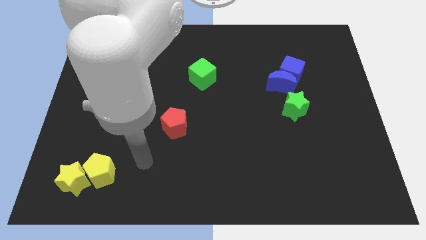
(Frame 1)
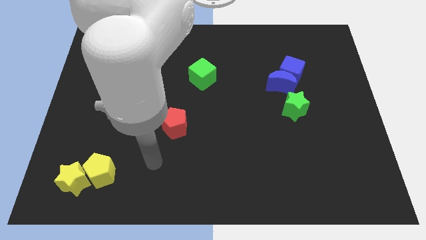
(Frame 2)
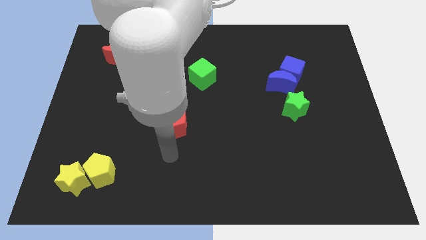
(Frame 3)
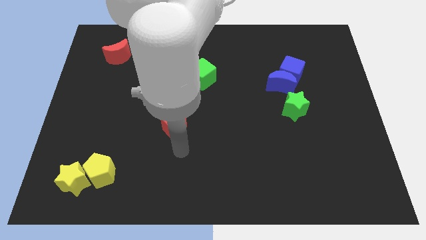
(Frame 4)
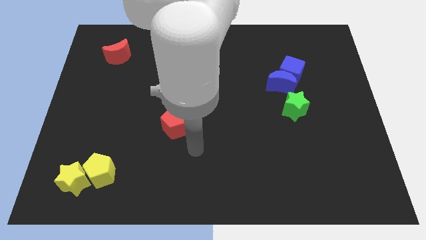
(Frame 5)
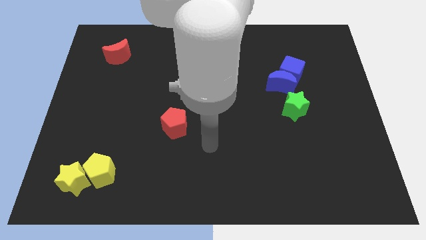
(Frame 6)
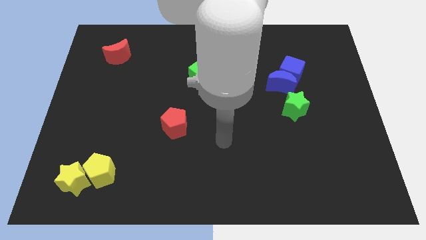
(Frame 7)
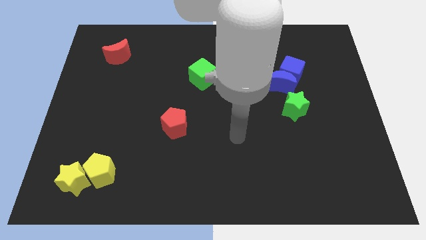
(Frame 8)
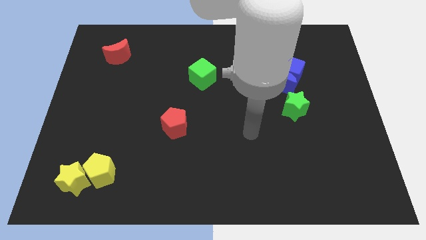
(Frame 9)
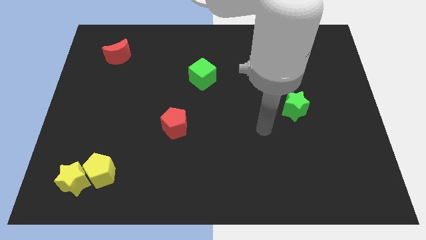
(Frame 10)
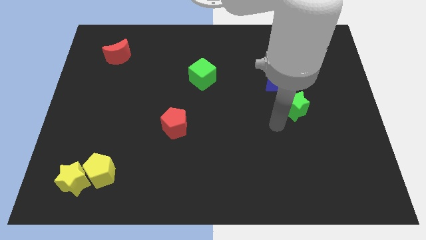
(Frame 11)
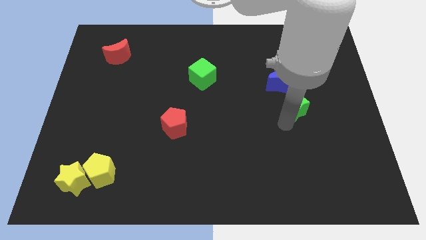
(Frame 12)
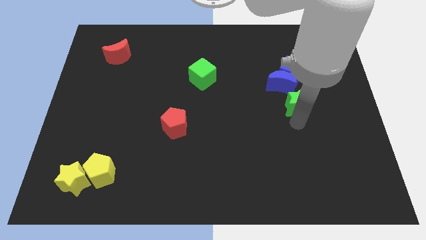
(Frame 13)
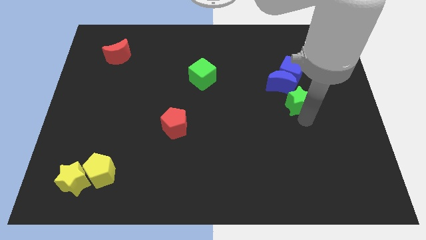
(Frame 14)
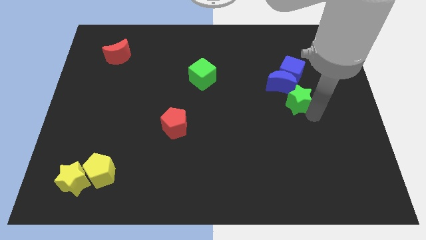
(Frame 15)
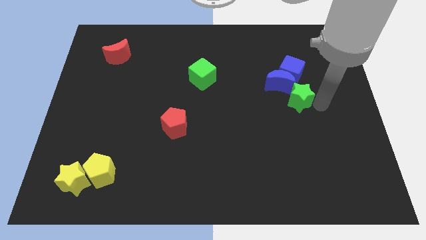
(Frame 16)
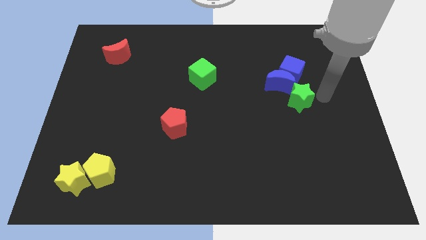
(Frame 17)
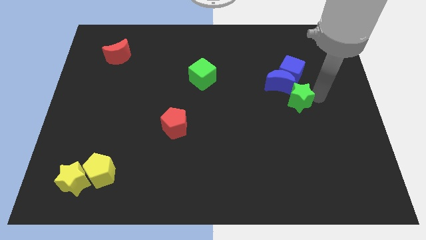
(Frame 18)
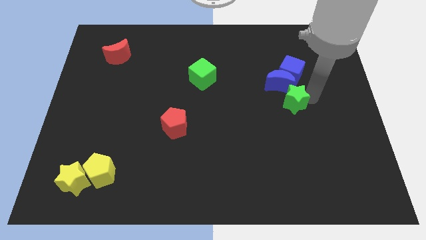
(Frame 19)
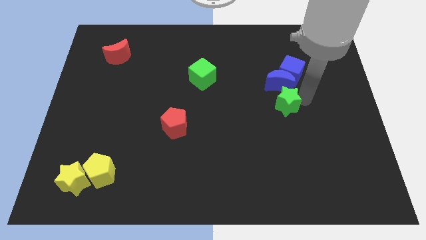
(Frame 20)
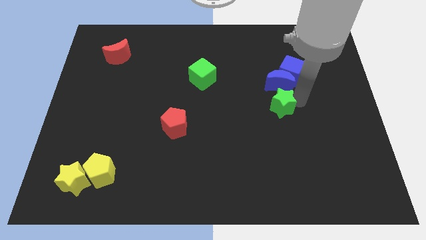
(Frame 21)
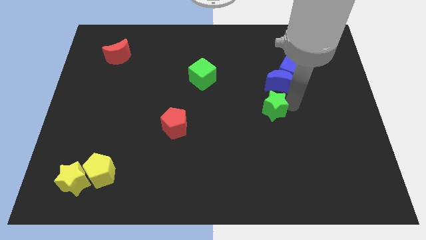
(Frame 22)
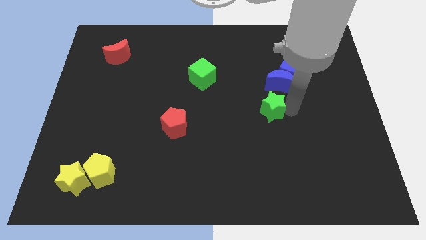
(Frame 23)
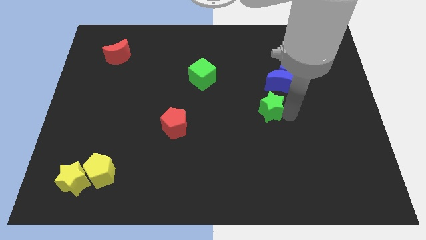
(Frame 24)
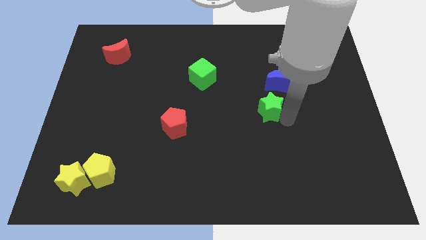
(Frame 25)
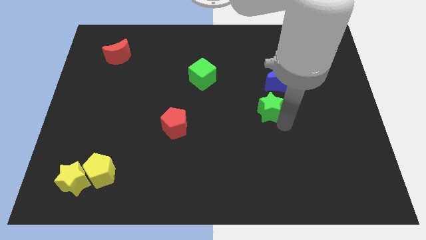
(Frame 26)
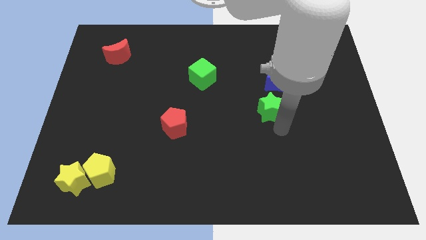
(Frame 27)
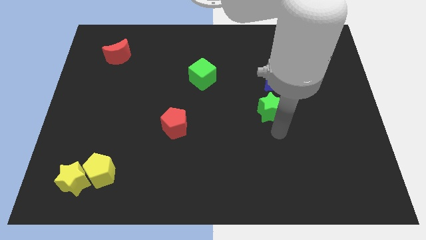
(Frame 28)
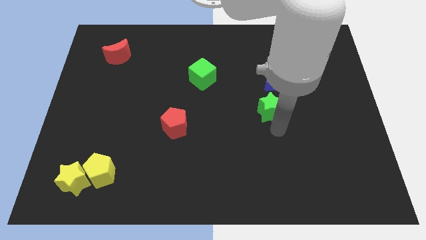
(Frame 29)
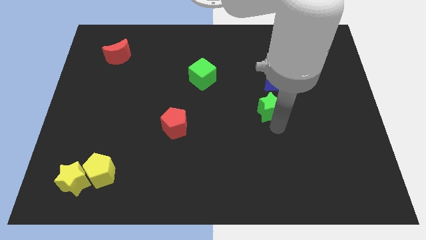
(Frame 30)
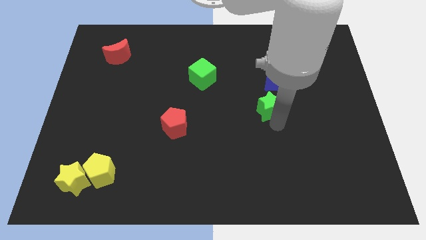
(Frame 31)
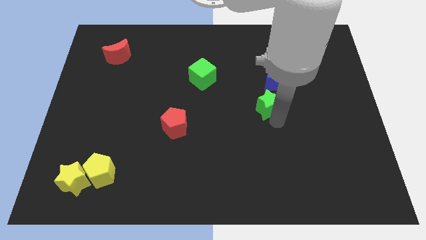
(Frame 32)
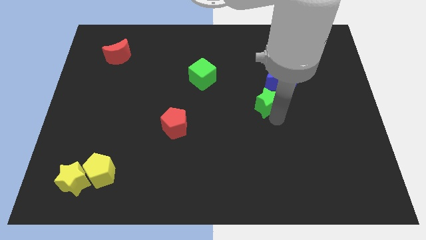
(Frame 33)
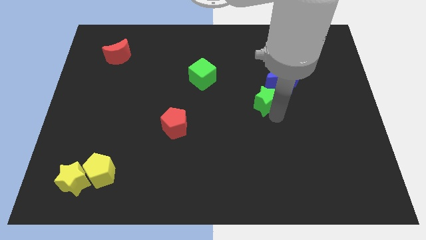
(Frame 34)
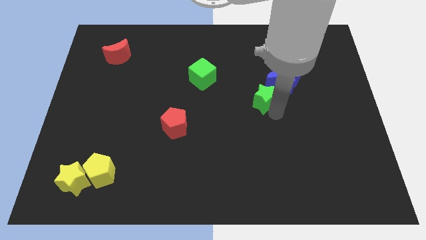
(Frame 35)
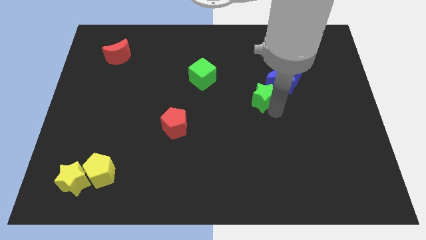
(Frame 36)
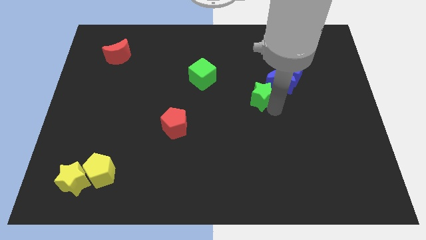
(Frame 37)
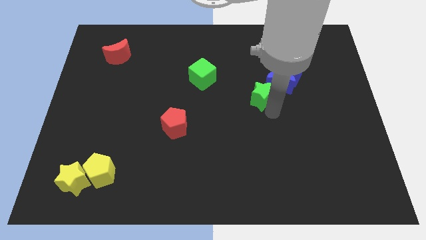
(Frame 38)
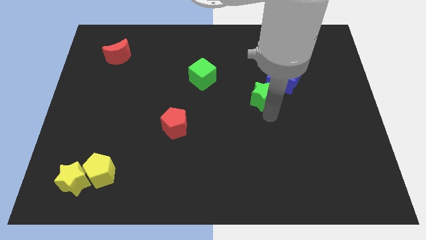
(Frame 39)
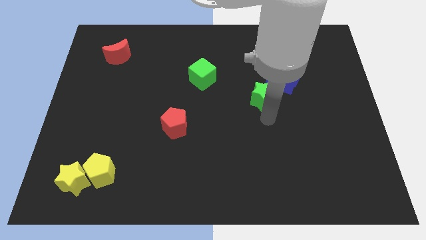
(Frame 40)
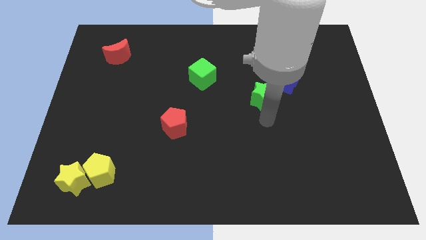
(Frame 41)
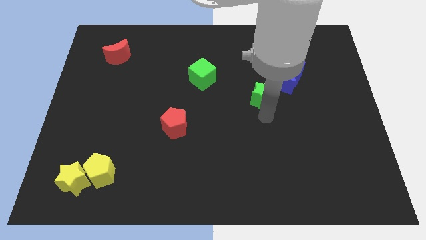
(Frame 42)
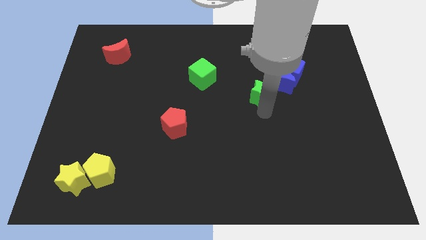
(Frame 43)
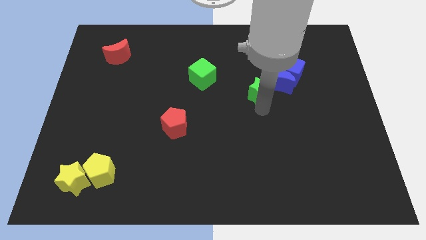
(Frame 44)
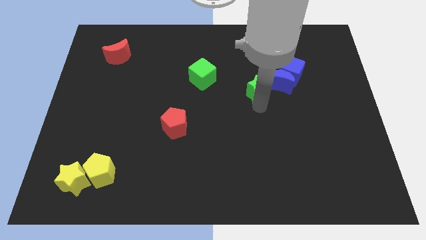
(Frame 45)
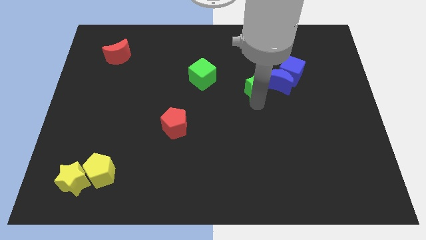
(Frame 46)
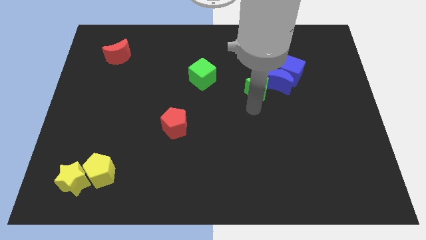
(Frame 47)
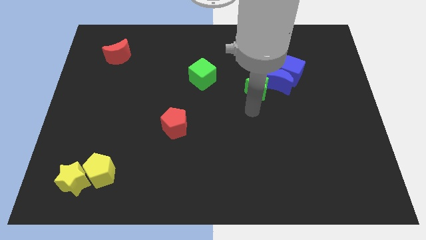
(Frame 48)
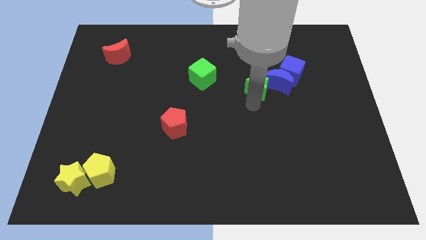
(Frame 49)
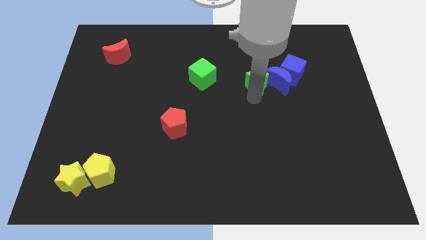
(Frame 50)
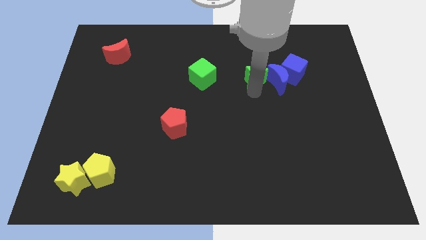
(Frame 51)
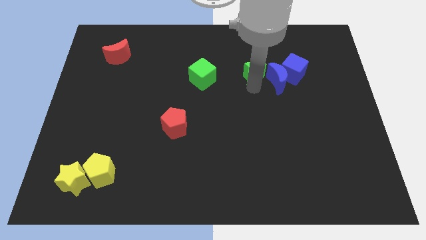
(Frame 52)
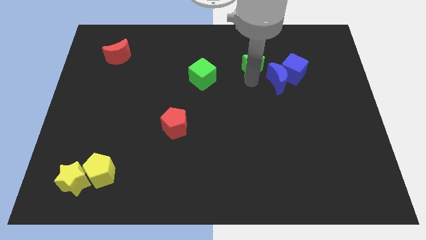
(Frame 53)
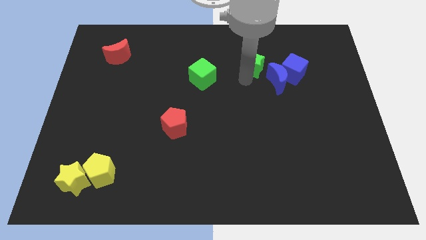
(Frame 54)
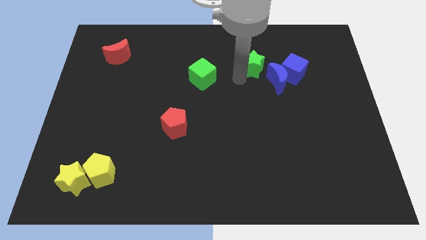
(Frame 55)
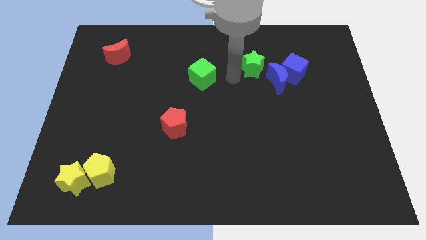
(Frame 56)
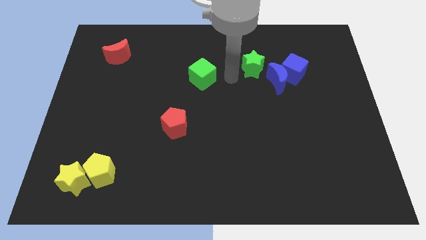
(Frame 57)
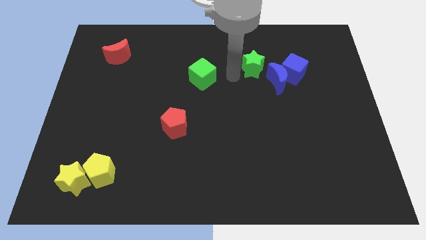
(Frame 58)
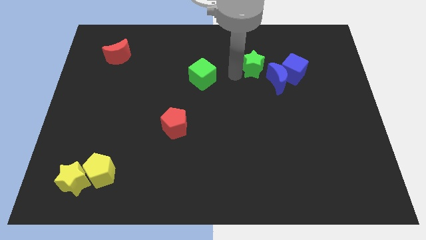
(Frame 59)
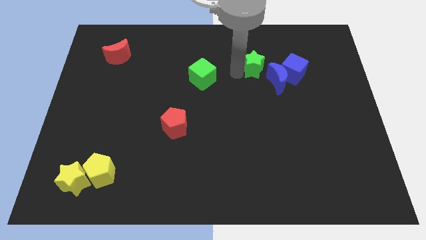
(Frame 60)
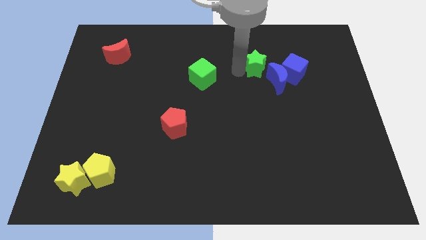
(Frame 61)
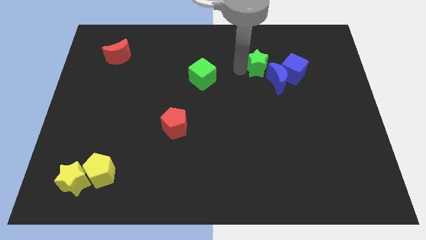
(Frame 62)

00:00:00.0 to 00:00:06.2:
slide the green star diagonally up and to the left of the blue cube

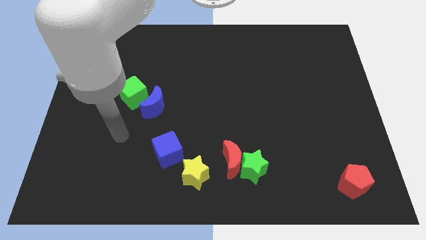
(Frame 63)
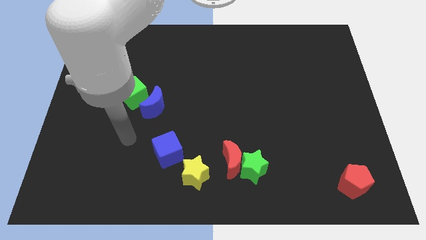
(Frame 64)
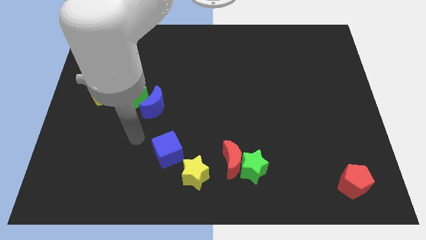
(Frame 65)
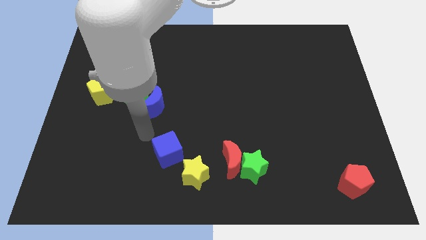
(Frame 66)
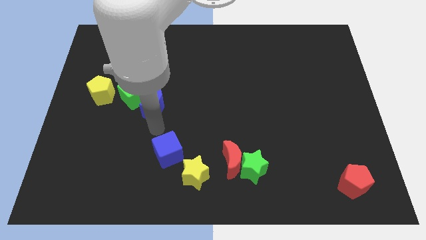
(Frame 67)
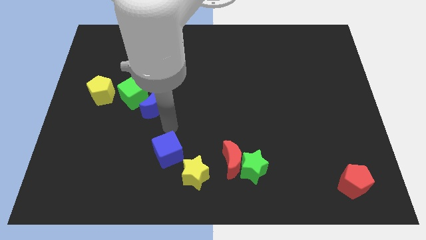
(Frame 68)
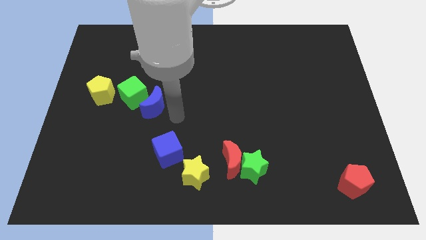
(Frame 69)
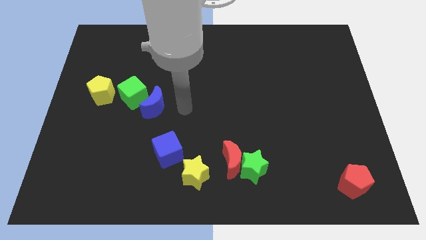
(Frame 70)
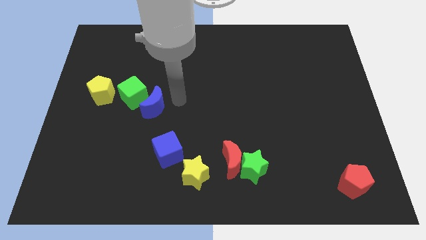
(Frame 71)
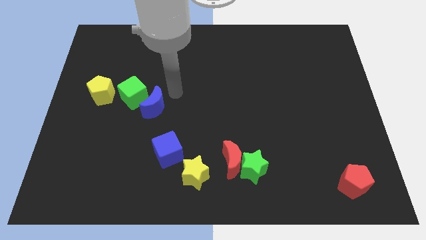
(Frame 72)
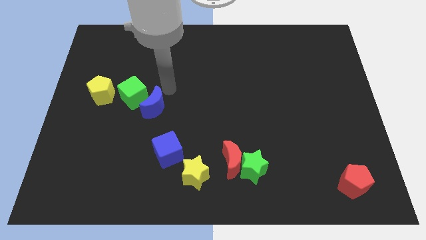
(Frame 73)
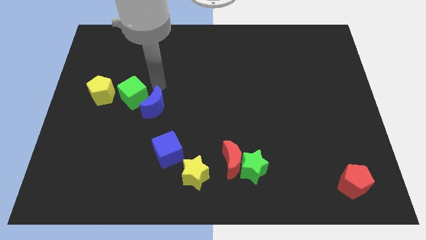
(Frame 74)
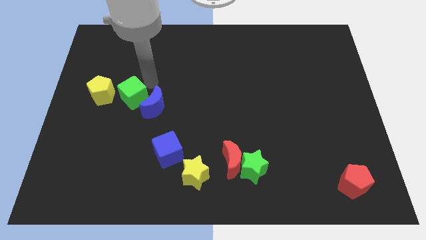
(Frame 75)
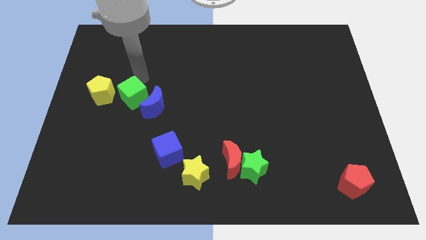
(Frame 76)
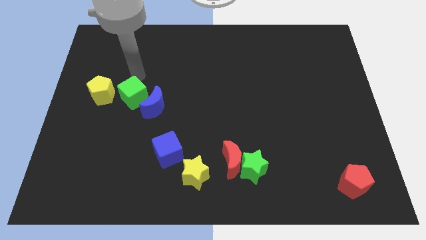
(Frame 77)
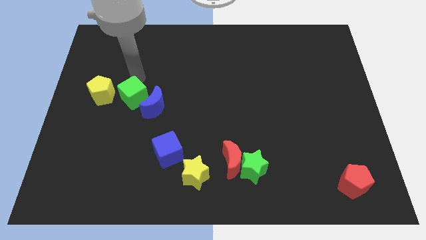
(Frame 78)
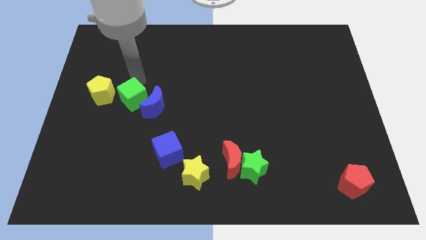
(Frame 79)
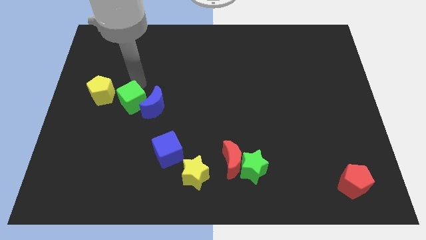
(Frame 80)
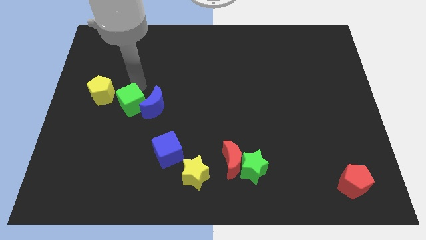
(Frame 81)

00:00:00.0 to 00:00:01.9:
slide the green cube to the bottom left side of the blue moon
